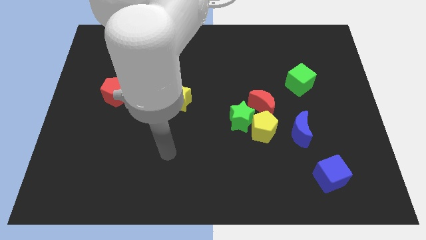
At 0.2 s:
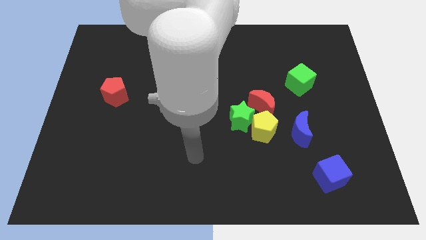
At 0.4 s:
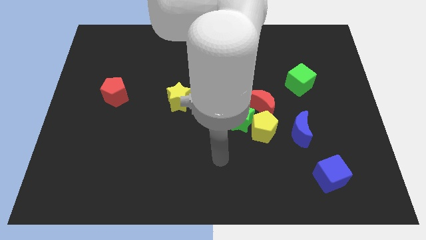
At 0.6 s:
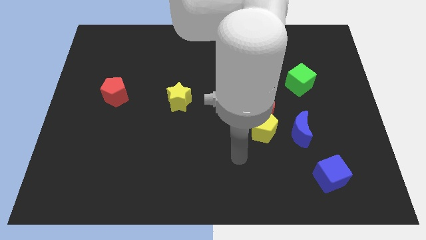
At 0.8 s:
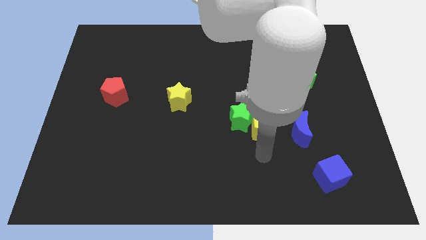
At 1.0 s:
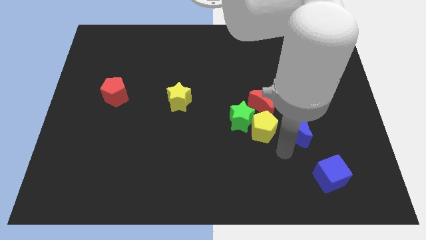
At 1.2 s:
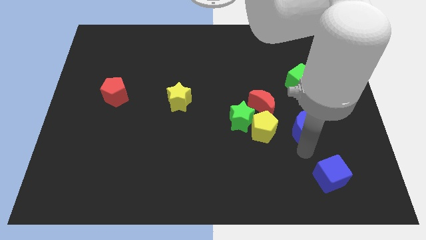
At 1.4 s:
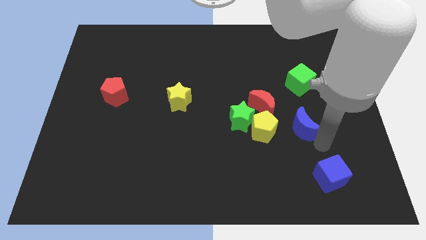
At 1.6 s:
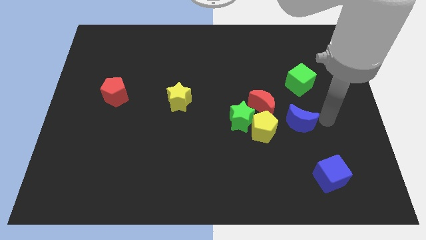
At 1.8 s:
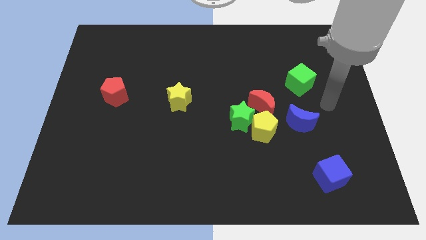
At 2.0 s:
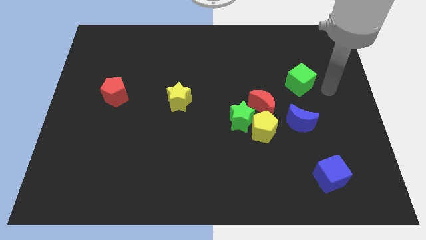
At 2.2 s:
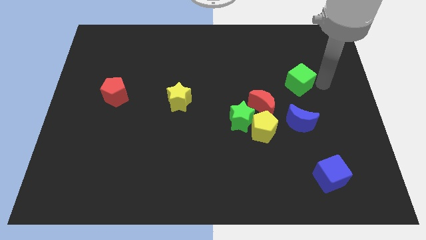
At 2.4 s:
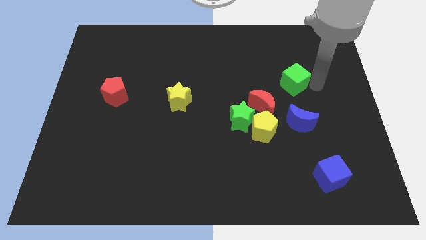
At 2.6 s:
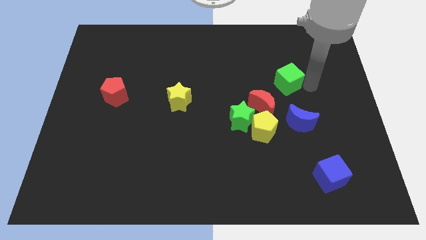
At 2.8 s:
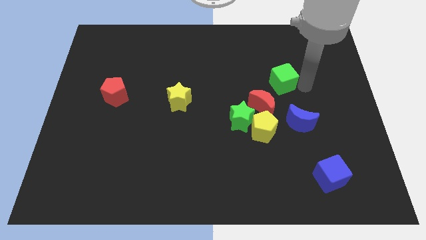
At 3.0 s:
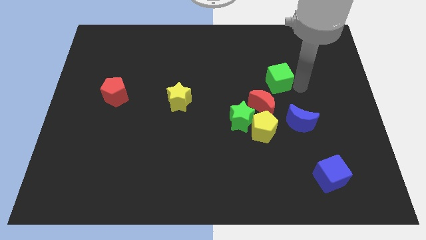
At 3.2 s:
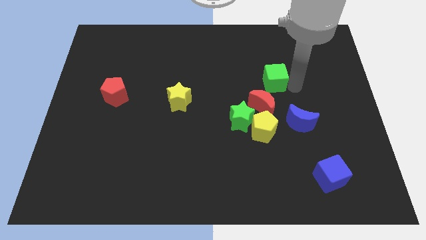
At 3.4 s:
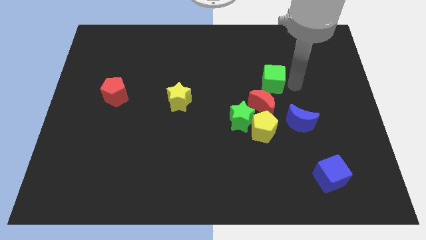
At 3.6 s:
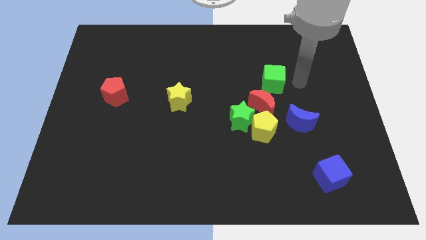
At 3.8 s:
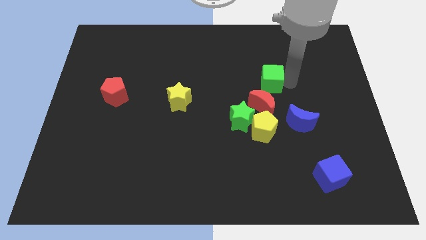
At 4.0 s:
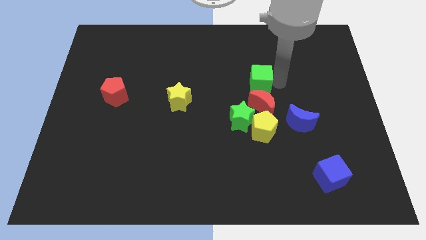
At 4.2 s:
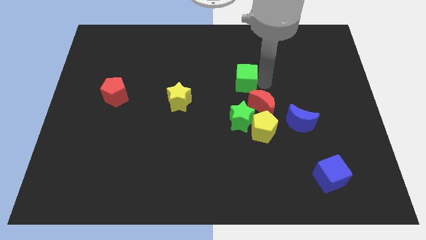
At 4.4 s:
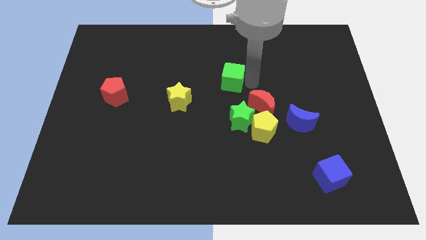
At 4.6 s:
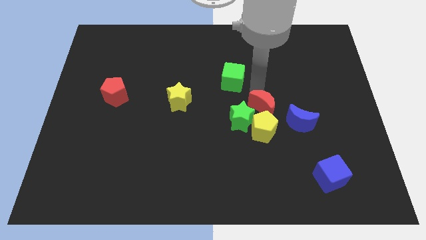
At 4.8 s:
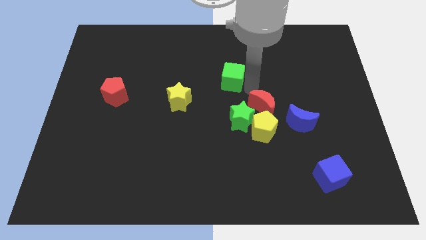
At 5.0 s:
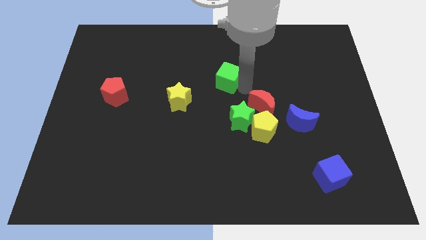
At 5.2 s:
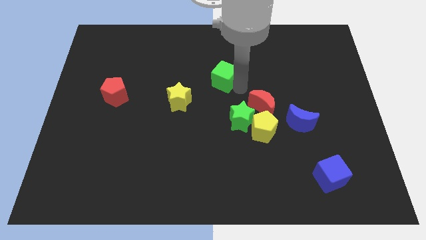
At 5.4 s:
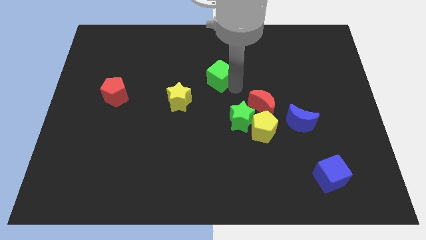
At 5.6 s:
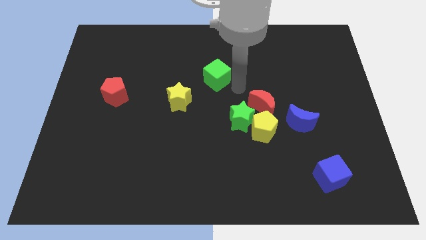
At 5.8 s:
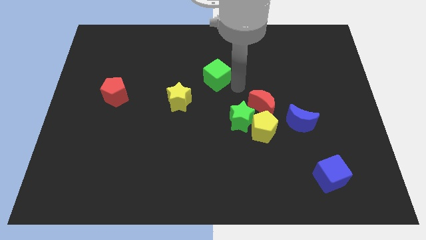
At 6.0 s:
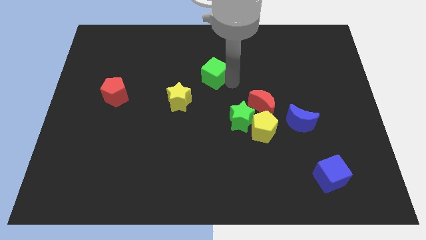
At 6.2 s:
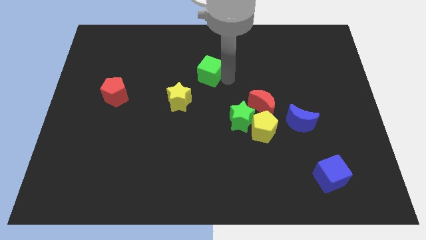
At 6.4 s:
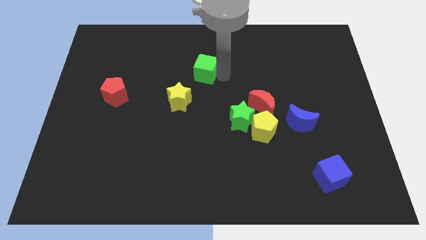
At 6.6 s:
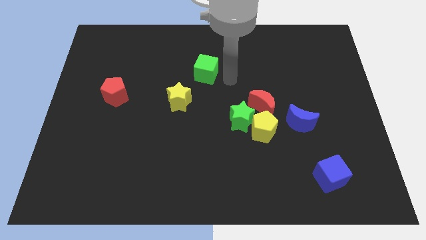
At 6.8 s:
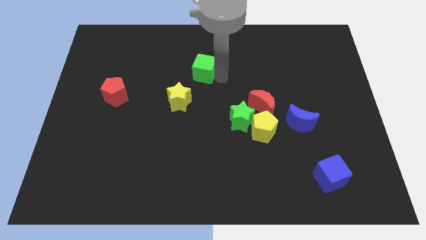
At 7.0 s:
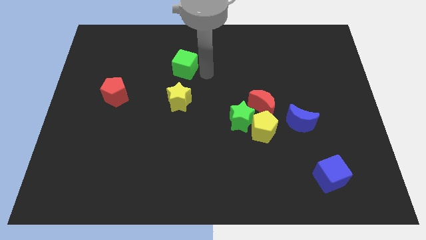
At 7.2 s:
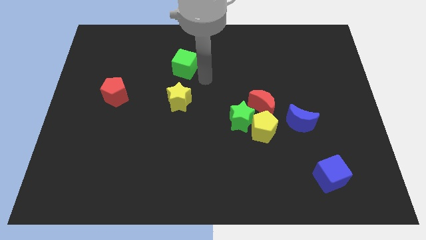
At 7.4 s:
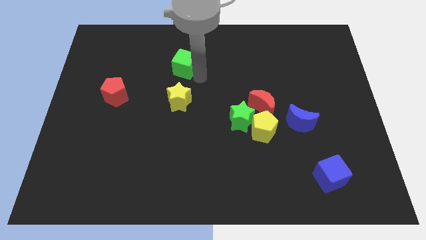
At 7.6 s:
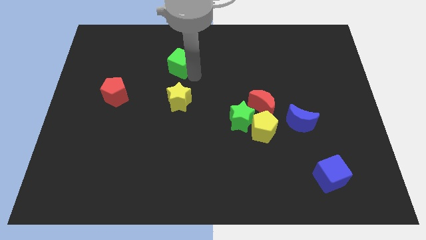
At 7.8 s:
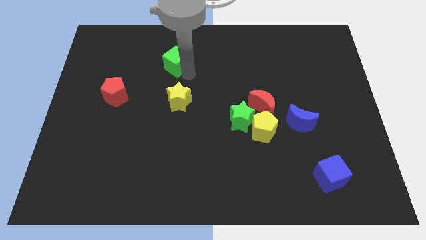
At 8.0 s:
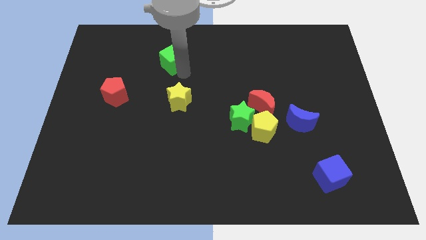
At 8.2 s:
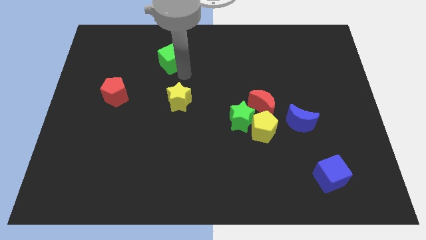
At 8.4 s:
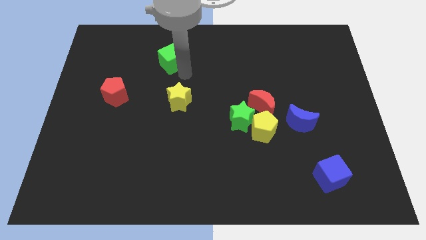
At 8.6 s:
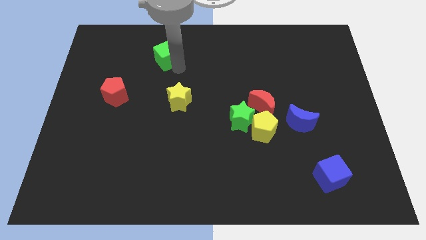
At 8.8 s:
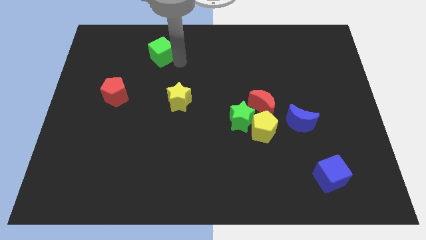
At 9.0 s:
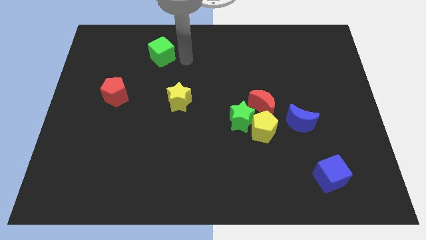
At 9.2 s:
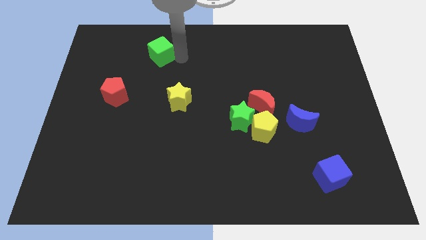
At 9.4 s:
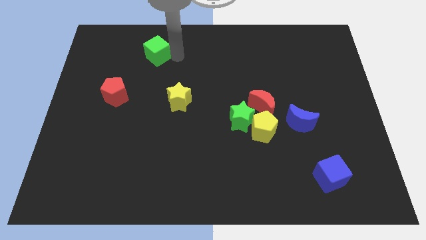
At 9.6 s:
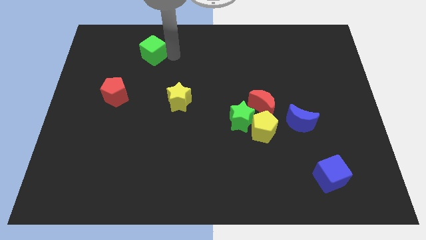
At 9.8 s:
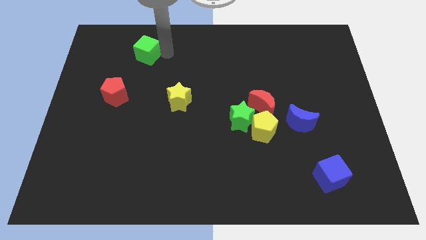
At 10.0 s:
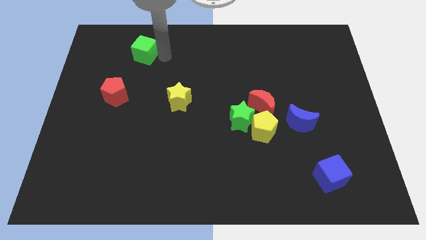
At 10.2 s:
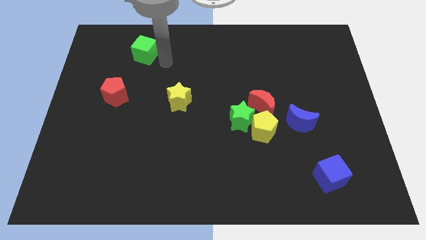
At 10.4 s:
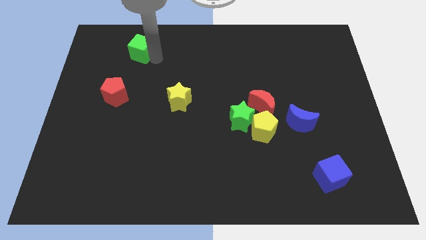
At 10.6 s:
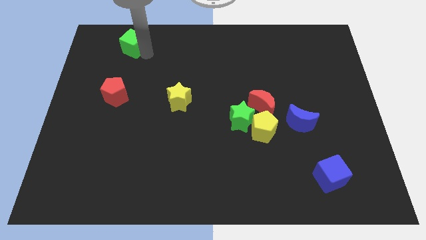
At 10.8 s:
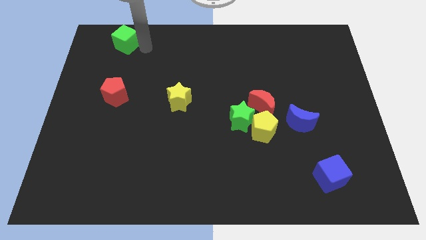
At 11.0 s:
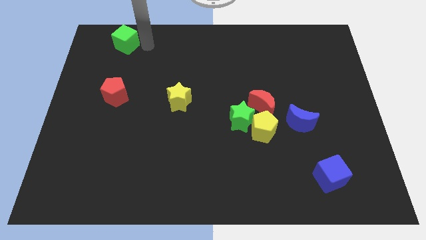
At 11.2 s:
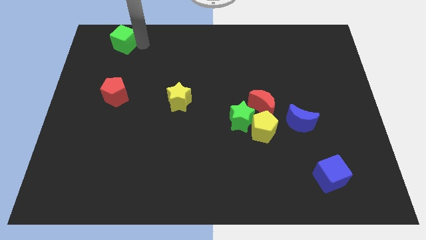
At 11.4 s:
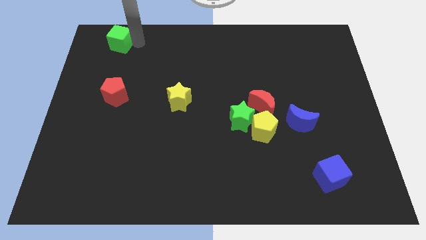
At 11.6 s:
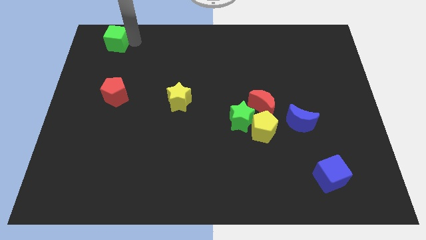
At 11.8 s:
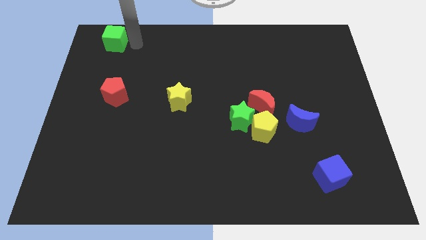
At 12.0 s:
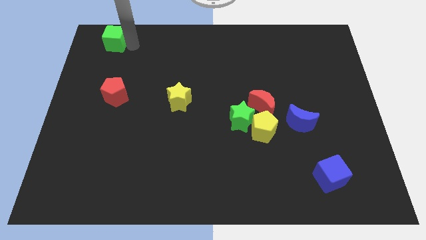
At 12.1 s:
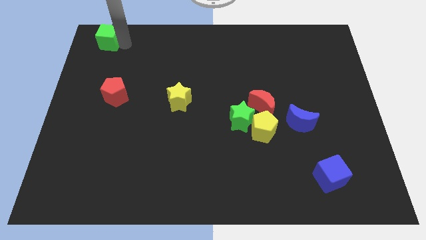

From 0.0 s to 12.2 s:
move the green cube to the top left

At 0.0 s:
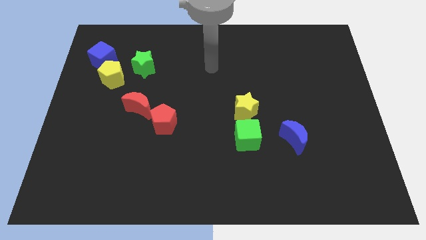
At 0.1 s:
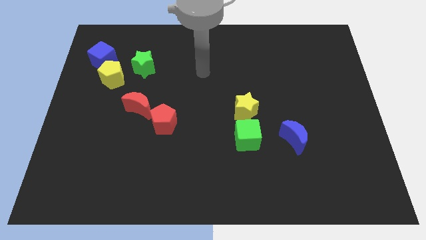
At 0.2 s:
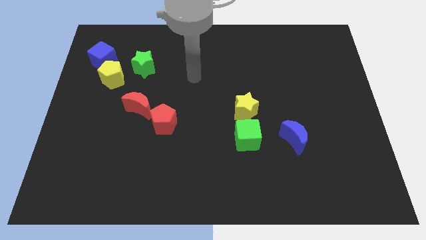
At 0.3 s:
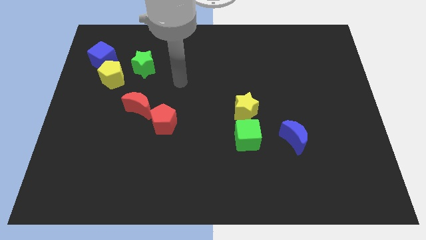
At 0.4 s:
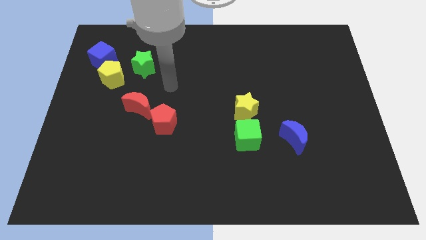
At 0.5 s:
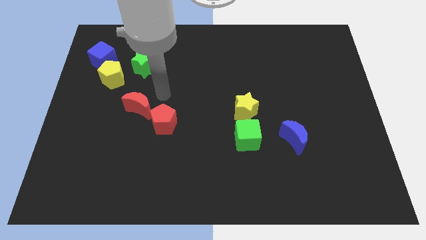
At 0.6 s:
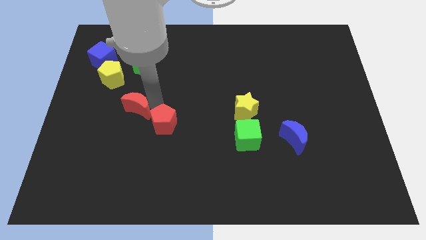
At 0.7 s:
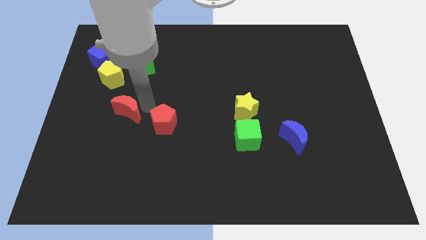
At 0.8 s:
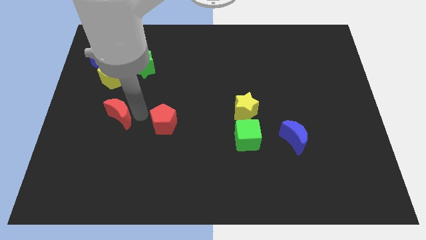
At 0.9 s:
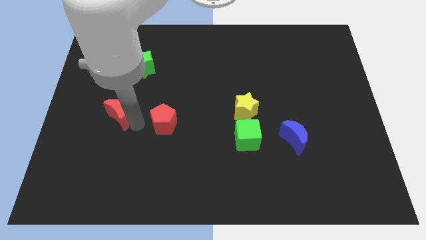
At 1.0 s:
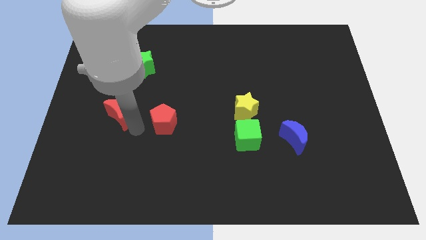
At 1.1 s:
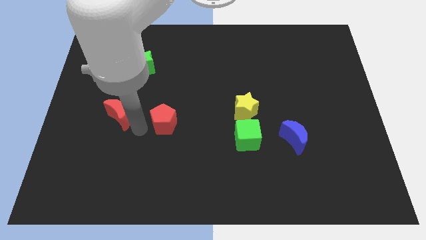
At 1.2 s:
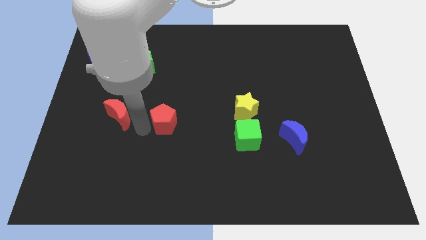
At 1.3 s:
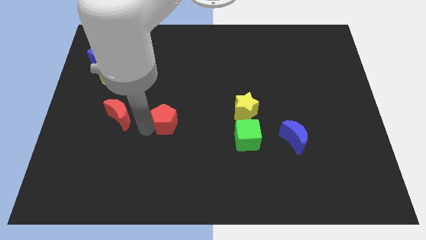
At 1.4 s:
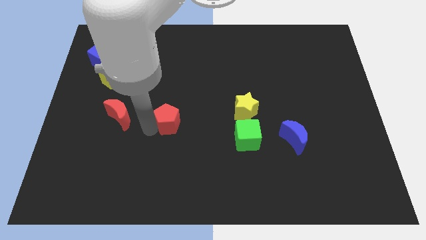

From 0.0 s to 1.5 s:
put the red pentagon to the center

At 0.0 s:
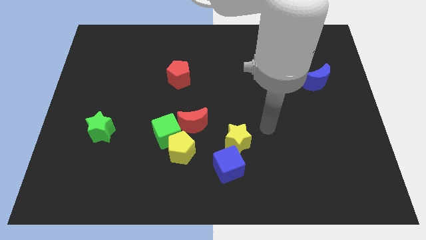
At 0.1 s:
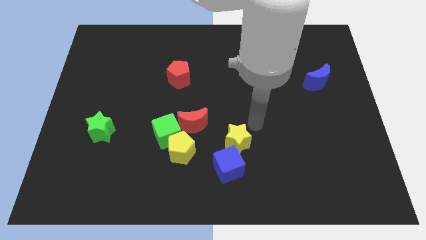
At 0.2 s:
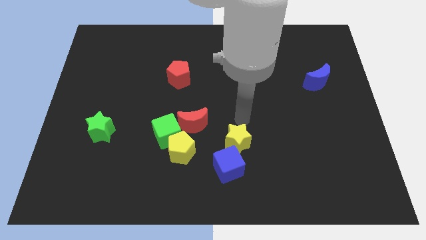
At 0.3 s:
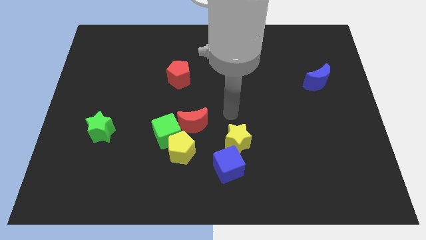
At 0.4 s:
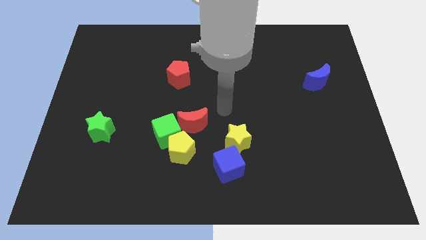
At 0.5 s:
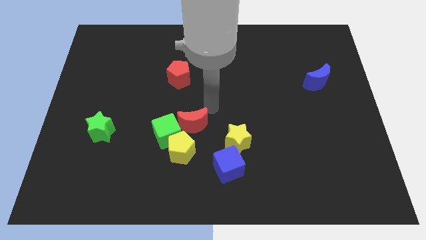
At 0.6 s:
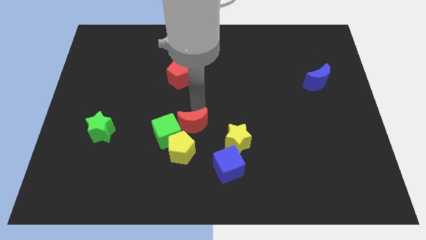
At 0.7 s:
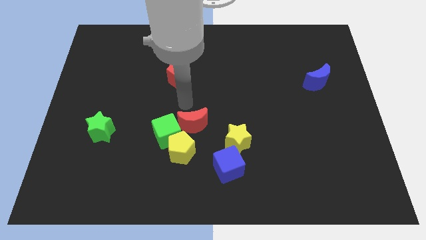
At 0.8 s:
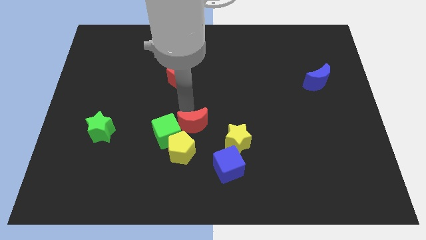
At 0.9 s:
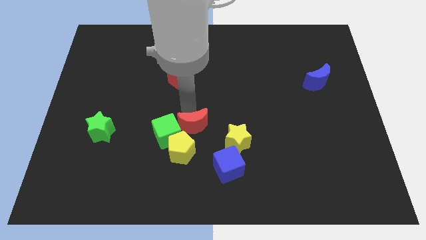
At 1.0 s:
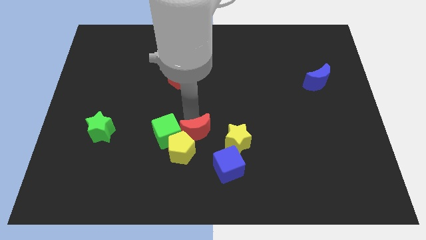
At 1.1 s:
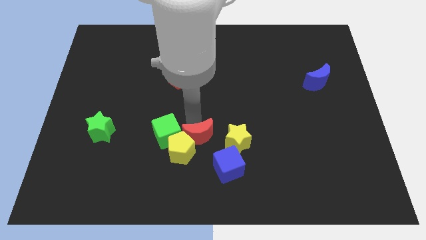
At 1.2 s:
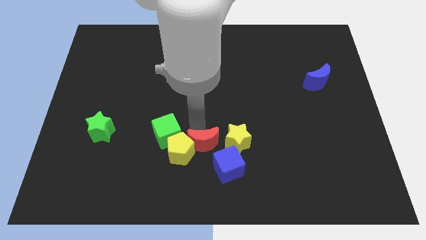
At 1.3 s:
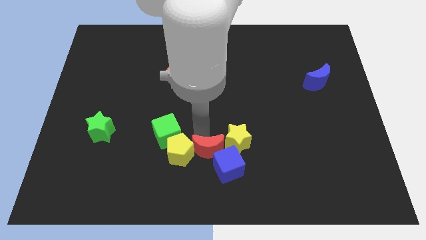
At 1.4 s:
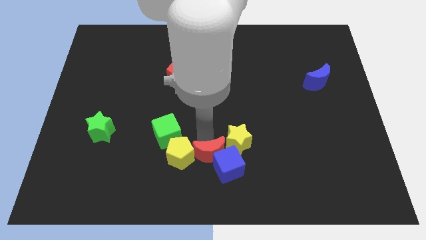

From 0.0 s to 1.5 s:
push the red moon to the bottom
